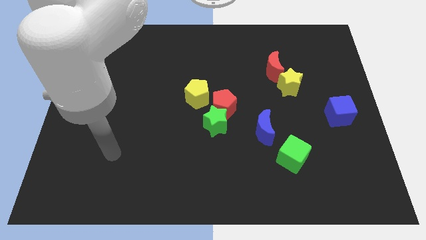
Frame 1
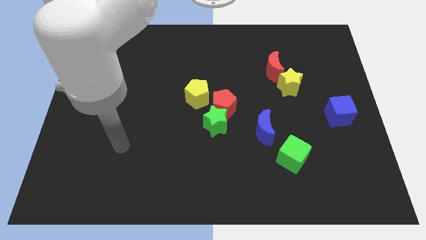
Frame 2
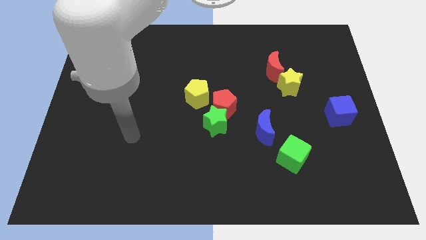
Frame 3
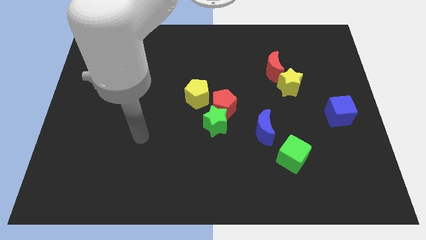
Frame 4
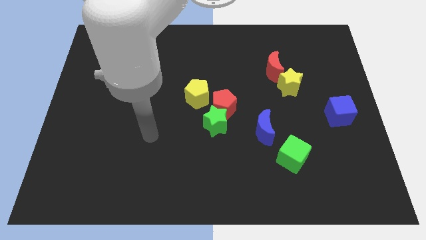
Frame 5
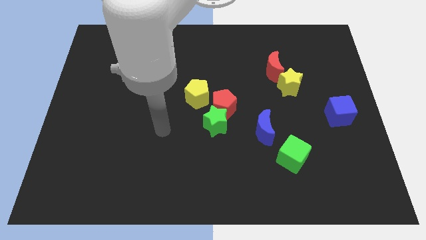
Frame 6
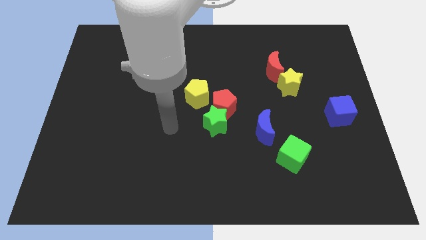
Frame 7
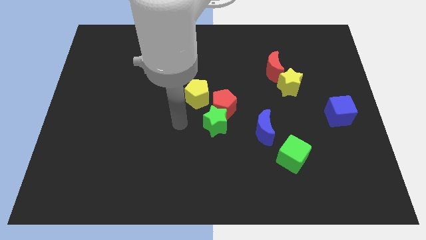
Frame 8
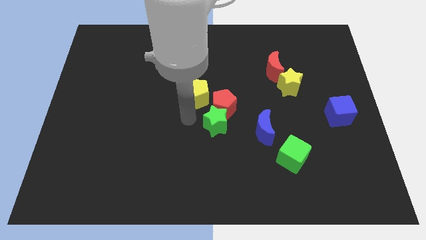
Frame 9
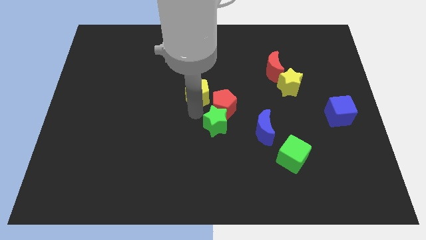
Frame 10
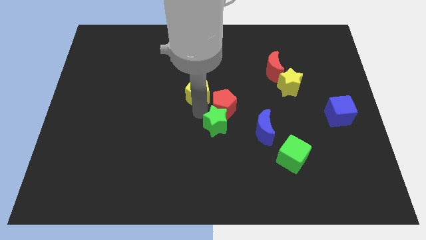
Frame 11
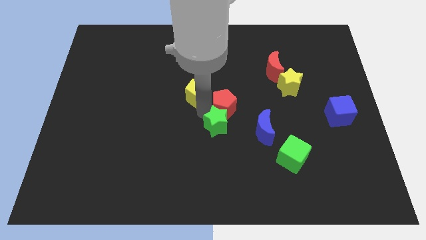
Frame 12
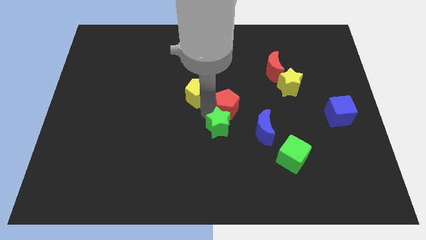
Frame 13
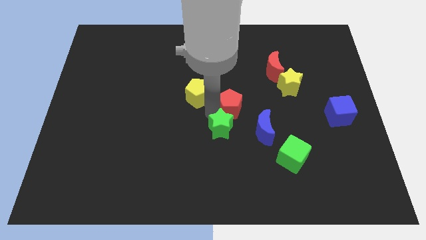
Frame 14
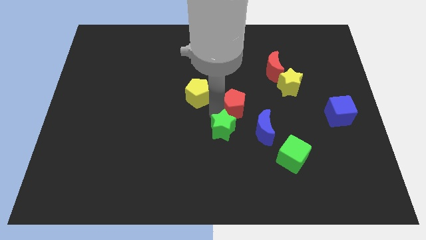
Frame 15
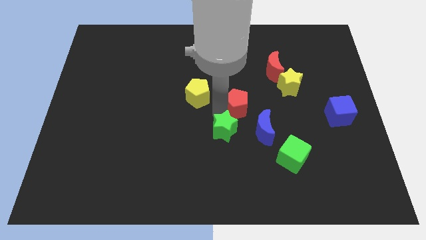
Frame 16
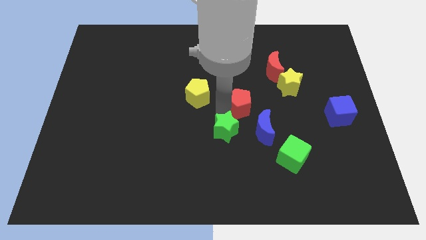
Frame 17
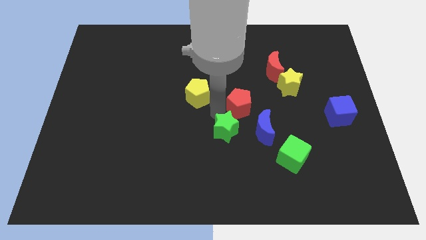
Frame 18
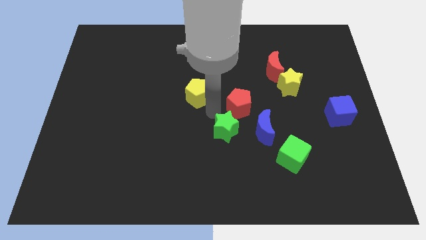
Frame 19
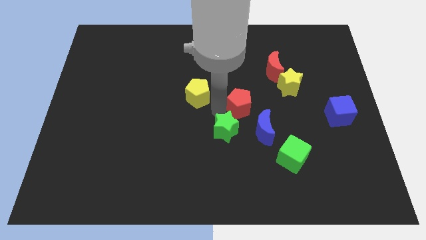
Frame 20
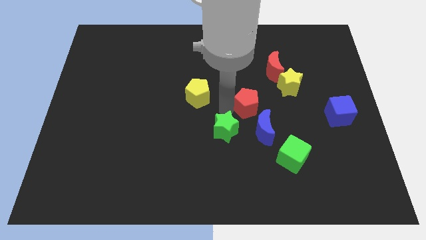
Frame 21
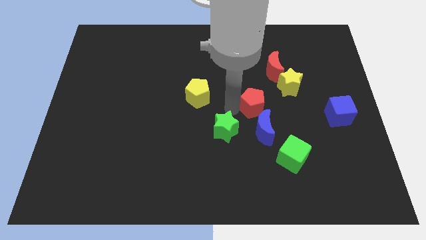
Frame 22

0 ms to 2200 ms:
move the red pentagon away from the green star and yellow pentagon

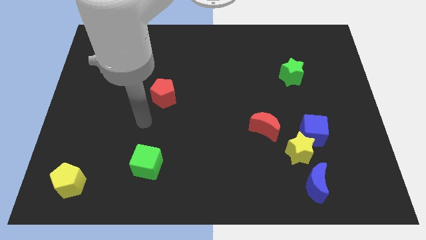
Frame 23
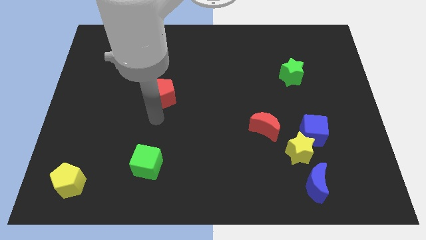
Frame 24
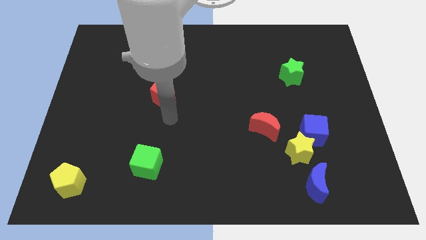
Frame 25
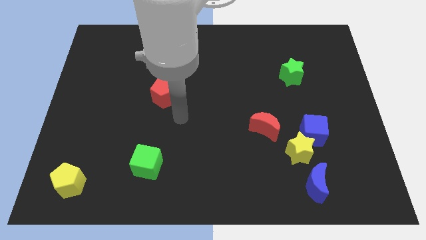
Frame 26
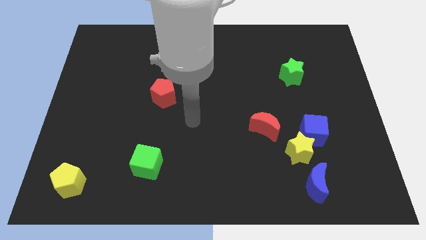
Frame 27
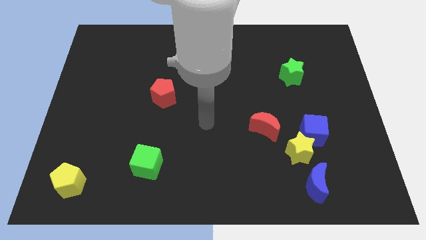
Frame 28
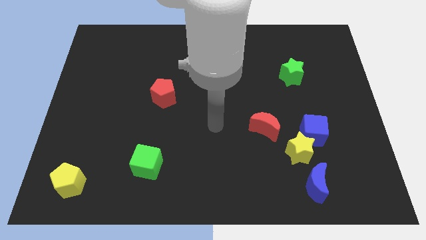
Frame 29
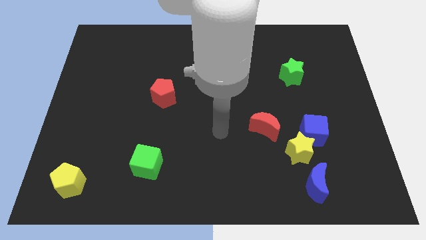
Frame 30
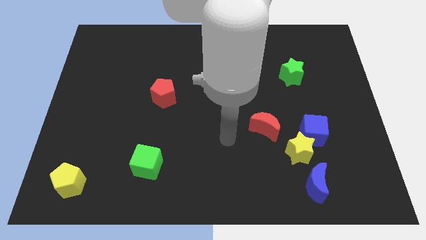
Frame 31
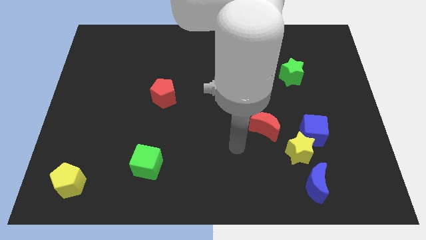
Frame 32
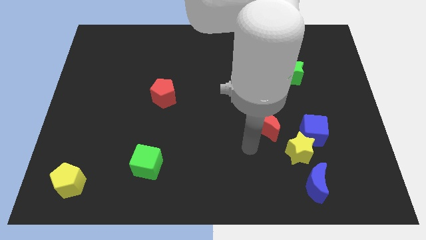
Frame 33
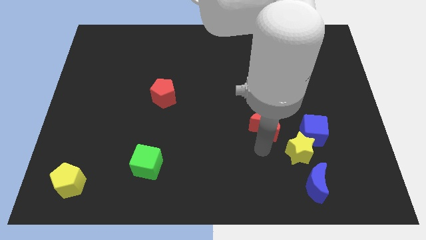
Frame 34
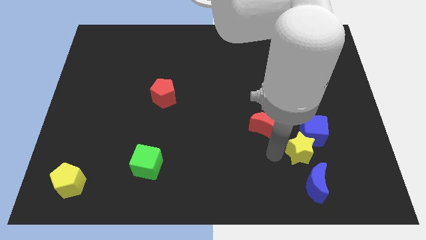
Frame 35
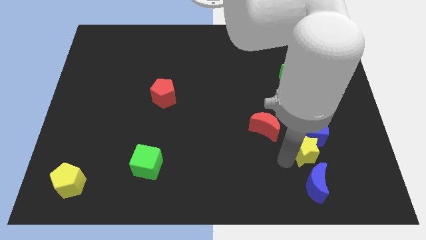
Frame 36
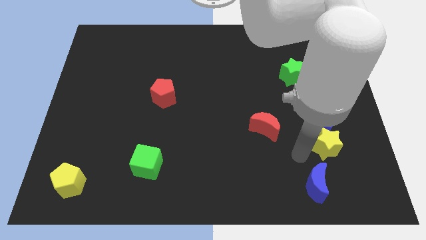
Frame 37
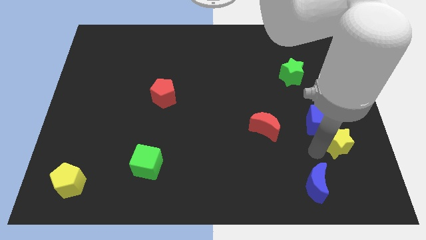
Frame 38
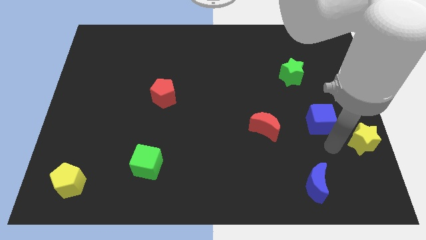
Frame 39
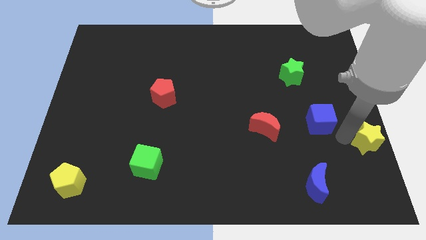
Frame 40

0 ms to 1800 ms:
move the blue cube away from the yellow star

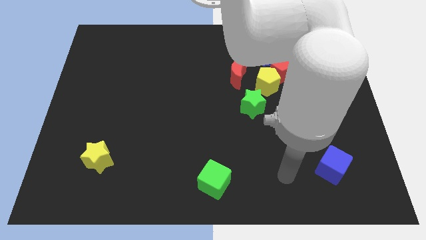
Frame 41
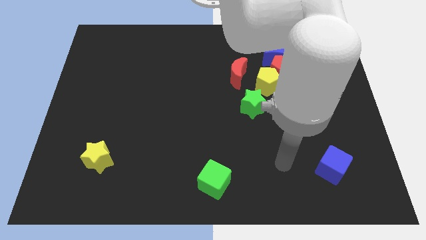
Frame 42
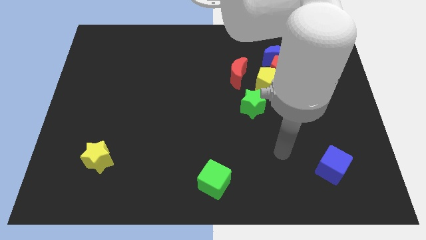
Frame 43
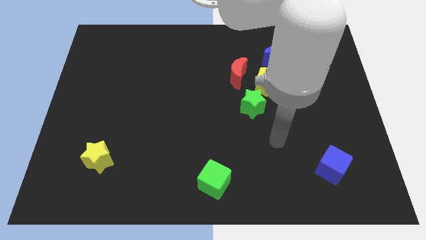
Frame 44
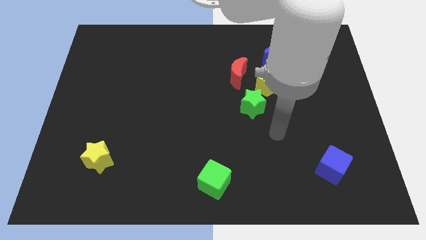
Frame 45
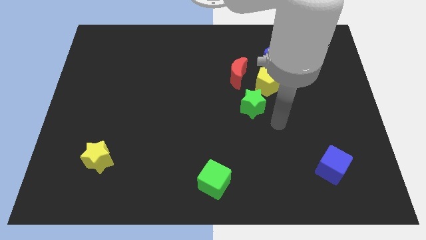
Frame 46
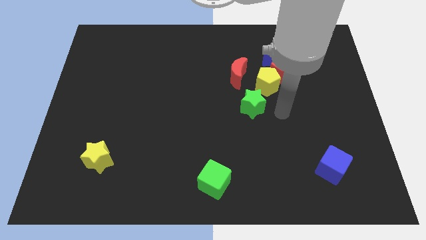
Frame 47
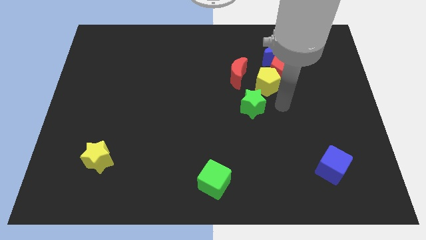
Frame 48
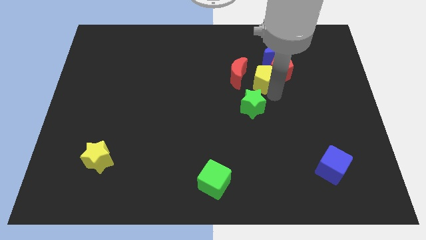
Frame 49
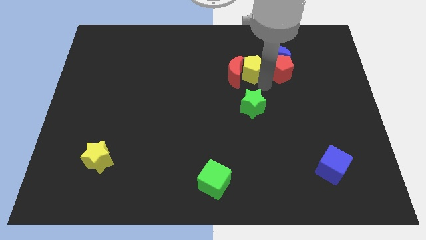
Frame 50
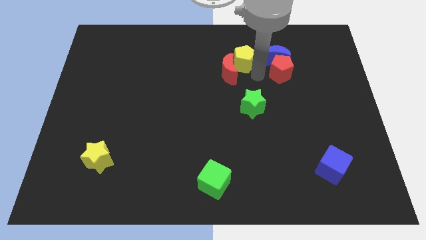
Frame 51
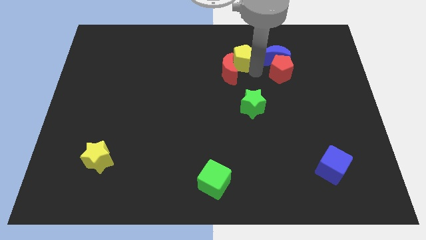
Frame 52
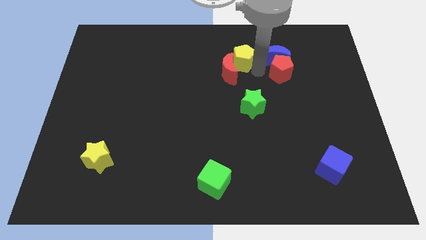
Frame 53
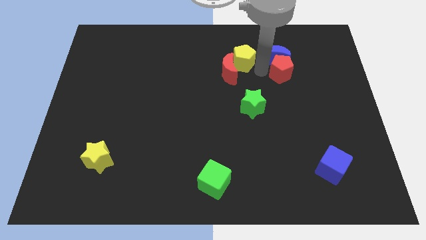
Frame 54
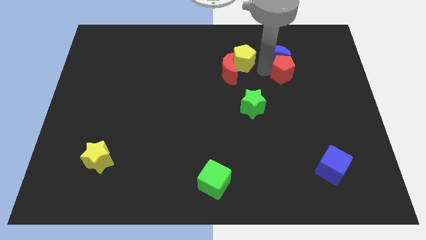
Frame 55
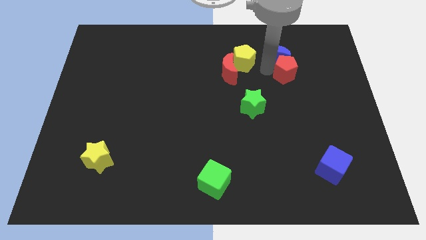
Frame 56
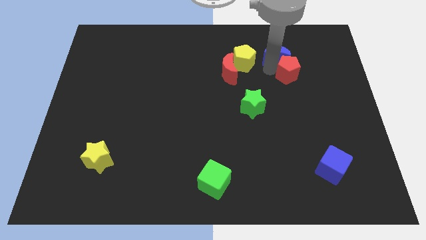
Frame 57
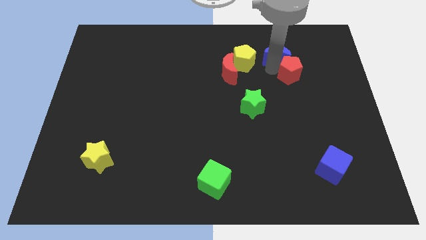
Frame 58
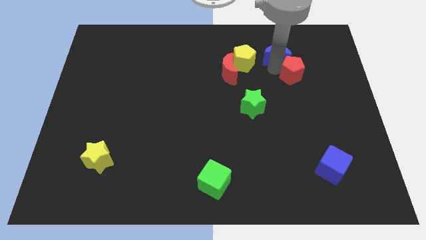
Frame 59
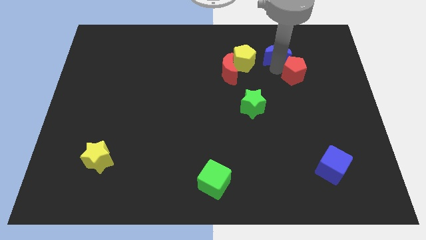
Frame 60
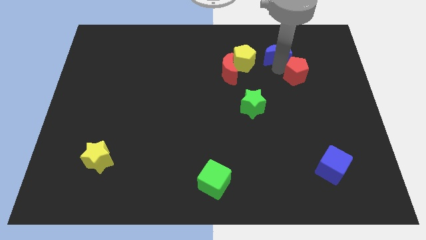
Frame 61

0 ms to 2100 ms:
separate the red pentagon from the blue moon and yellow pentagon

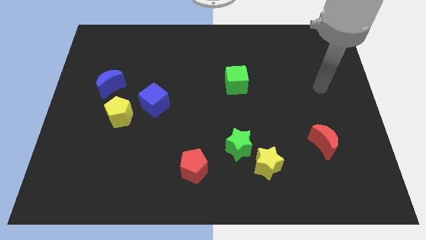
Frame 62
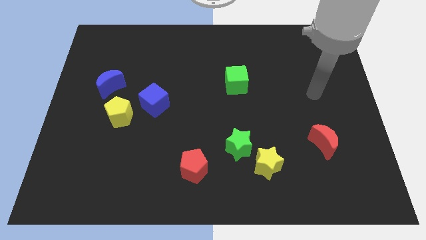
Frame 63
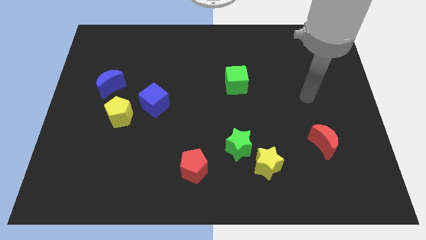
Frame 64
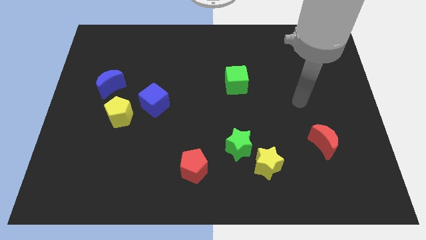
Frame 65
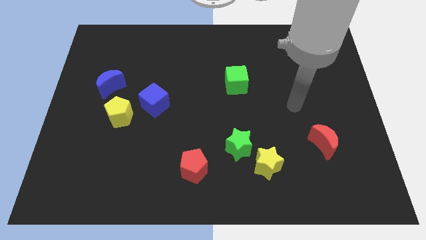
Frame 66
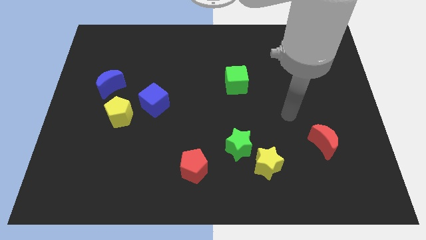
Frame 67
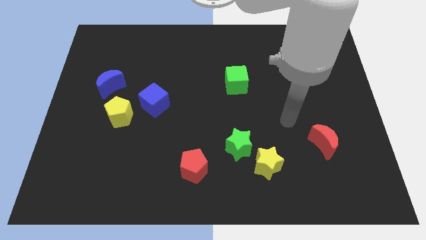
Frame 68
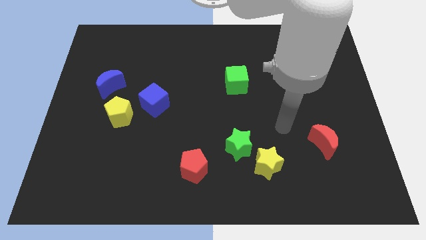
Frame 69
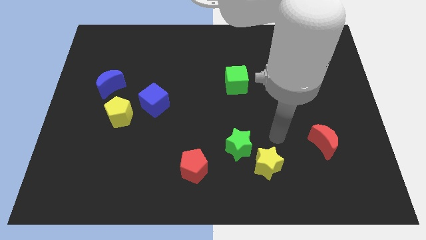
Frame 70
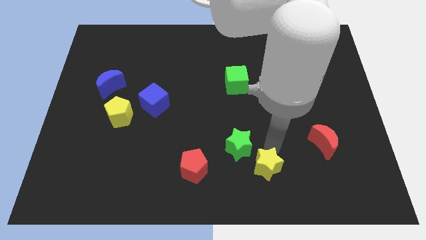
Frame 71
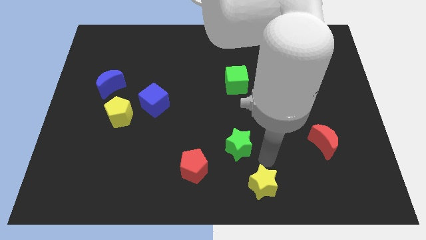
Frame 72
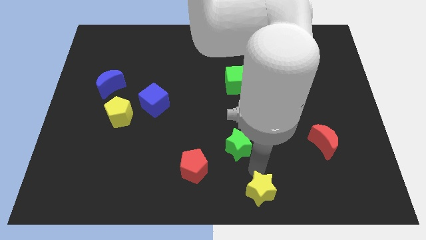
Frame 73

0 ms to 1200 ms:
separate the green star from the yellow star

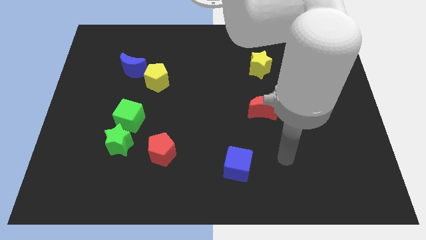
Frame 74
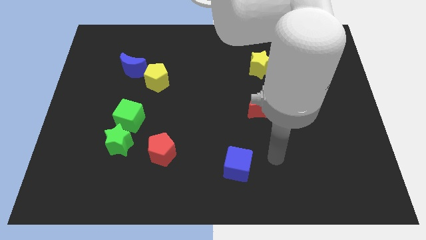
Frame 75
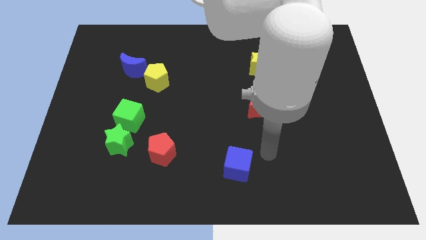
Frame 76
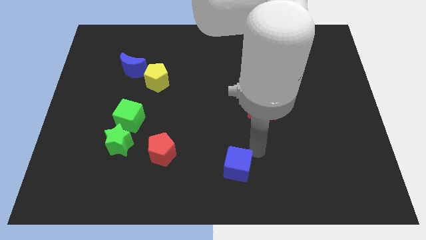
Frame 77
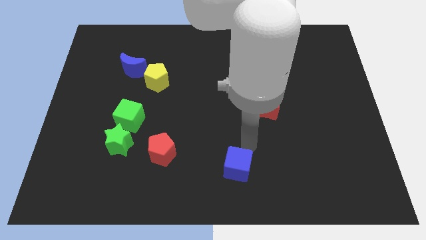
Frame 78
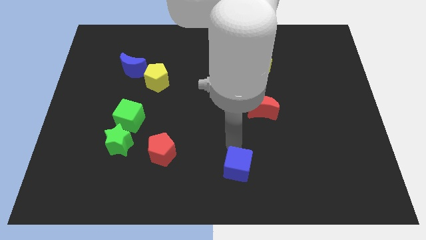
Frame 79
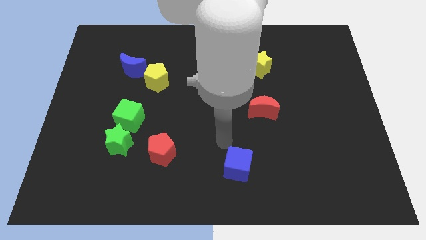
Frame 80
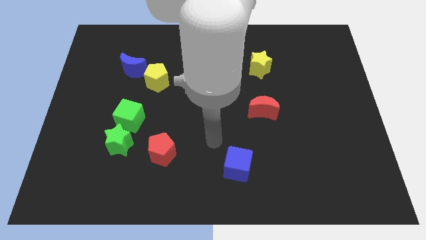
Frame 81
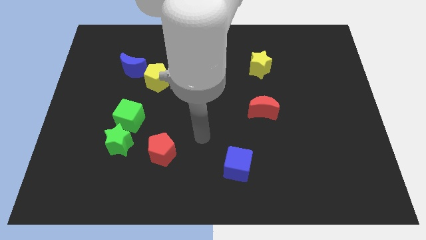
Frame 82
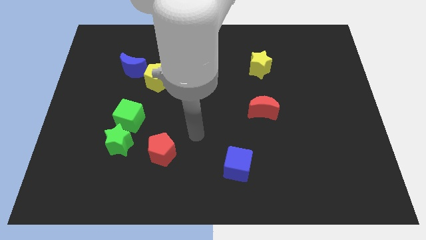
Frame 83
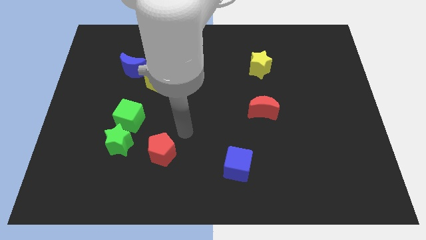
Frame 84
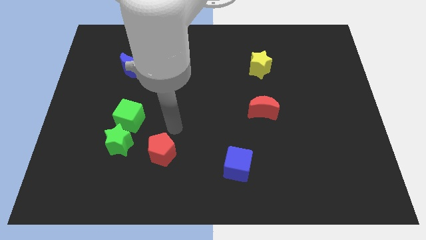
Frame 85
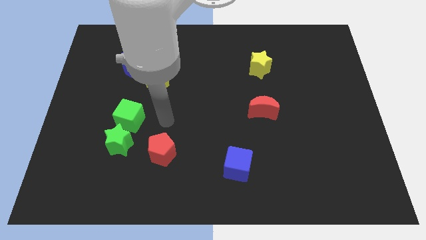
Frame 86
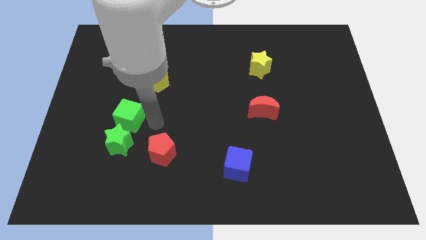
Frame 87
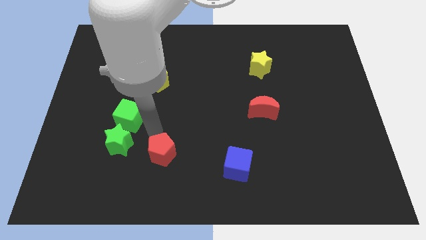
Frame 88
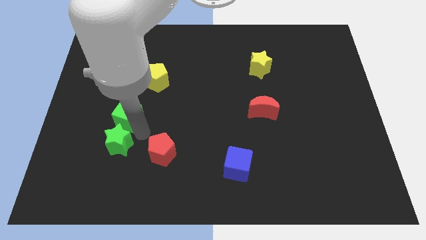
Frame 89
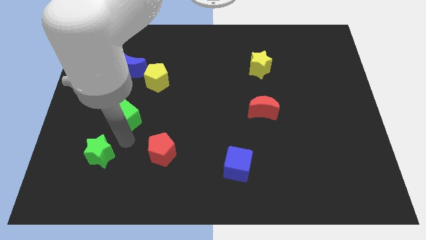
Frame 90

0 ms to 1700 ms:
separate the green cube from the green star

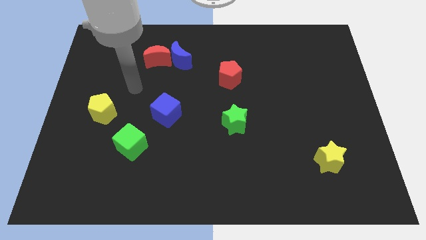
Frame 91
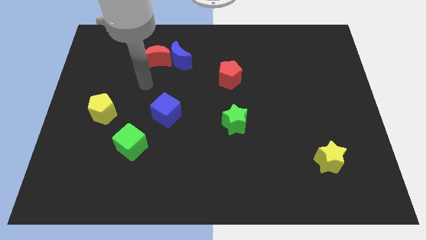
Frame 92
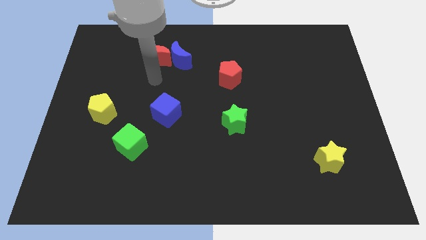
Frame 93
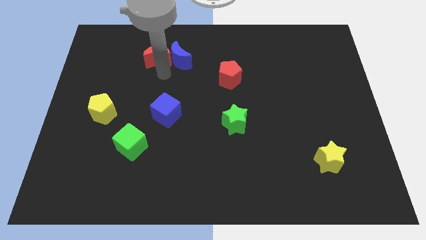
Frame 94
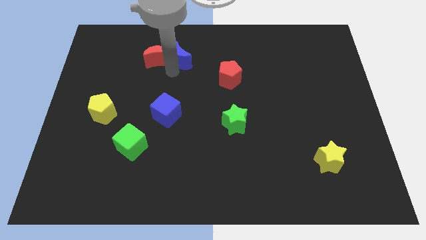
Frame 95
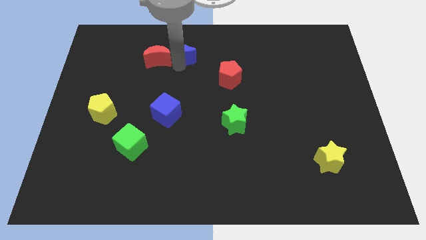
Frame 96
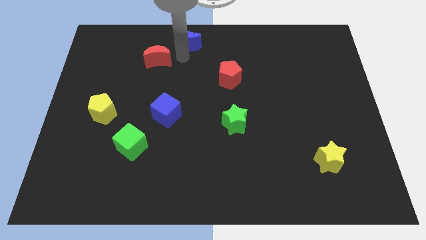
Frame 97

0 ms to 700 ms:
move the red moon away from the blue moon
